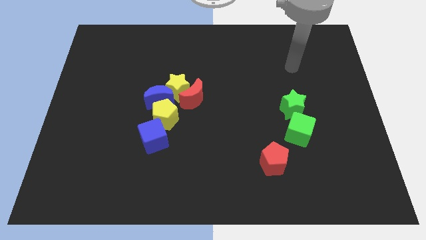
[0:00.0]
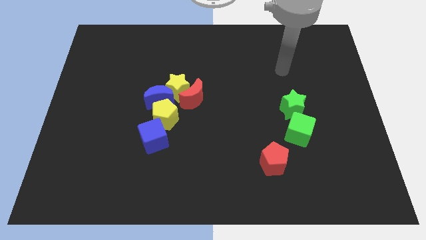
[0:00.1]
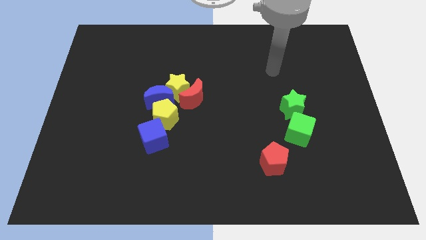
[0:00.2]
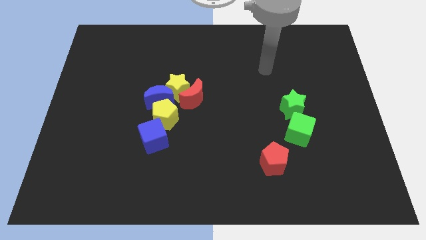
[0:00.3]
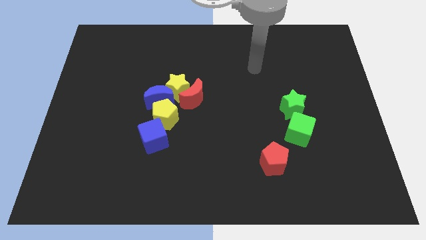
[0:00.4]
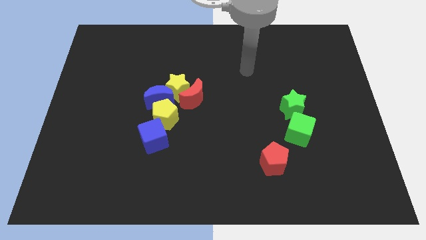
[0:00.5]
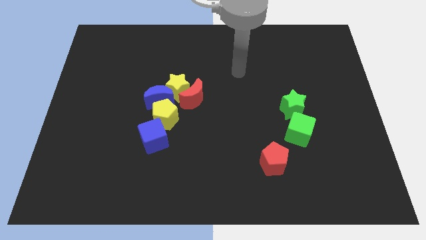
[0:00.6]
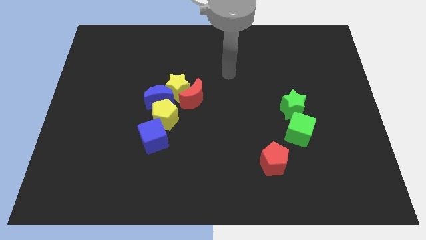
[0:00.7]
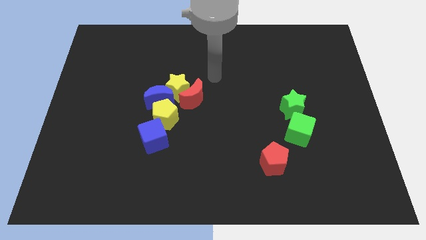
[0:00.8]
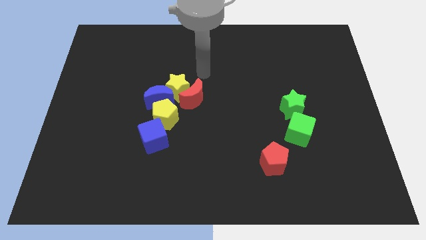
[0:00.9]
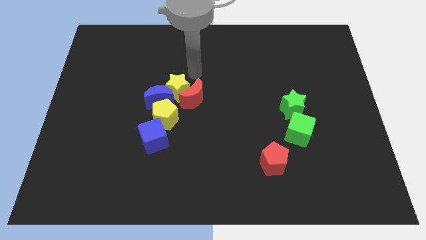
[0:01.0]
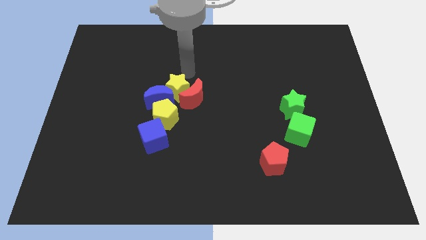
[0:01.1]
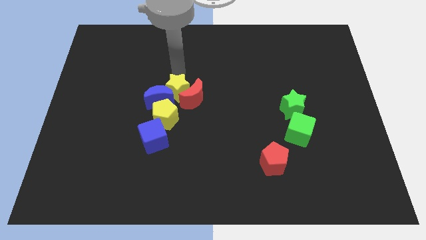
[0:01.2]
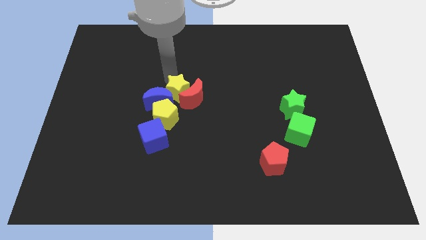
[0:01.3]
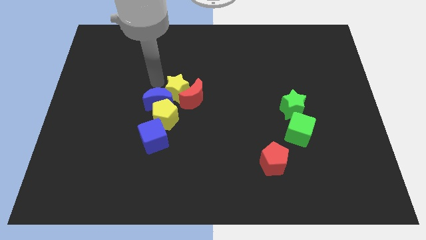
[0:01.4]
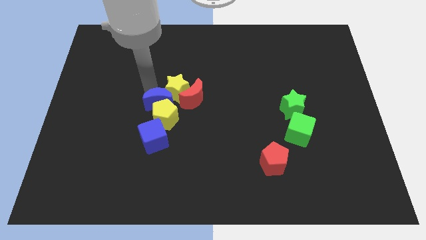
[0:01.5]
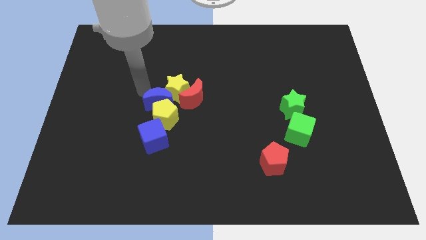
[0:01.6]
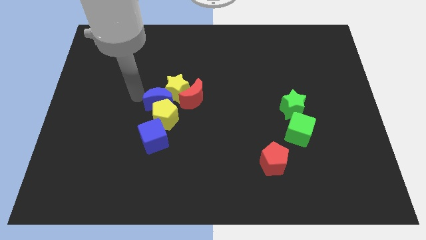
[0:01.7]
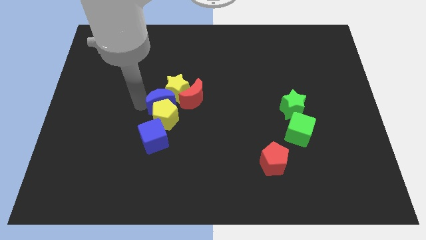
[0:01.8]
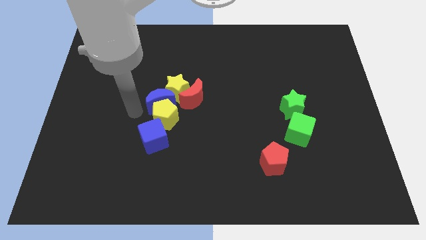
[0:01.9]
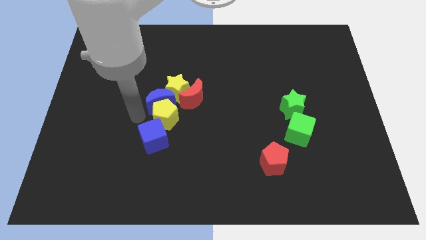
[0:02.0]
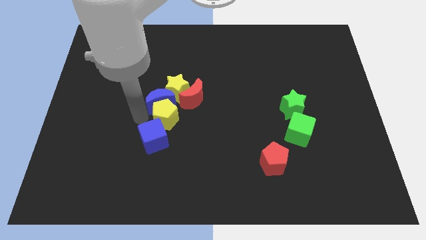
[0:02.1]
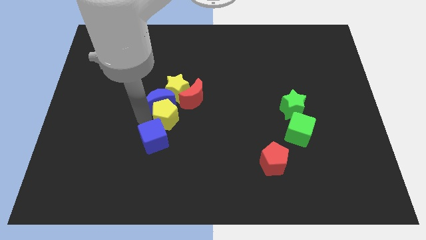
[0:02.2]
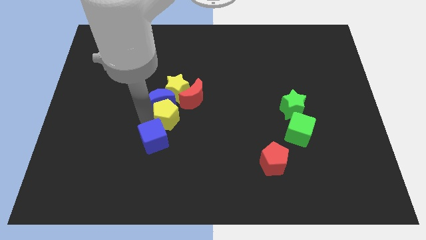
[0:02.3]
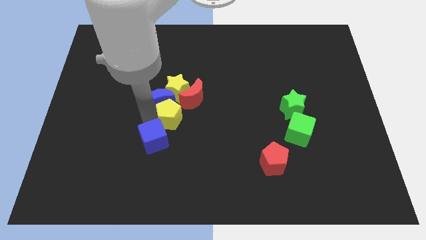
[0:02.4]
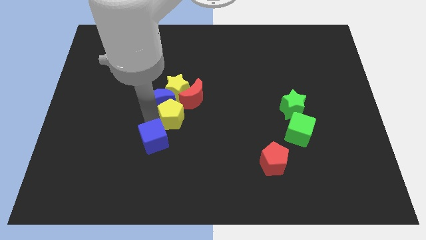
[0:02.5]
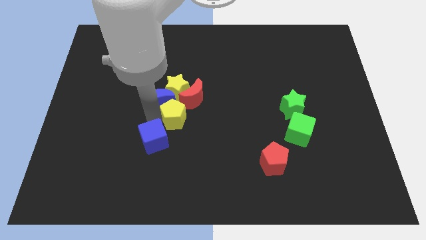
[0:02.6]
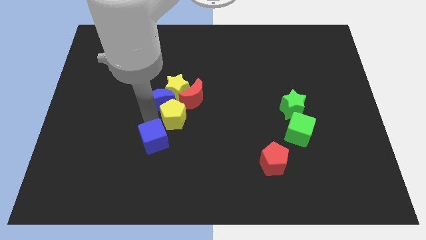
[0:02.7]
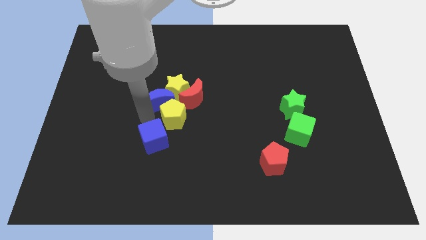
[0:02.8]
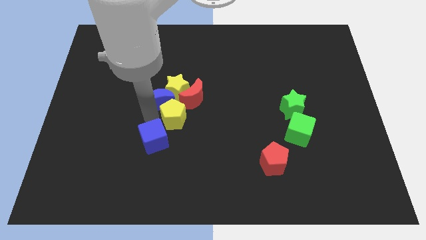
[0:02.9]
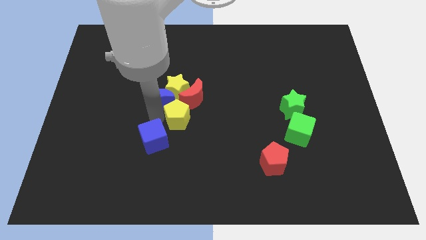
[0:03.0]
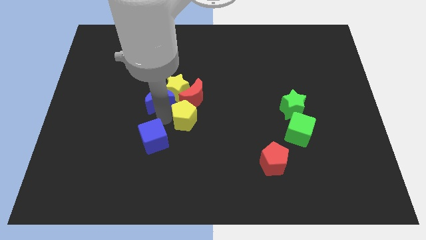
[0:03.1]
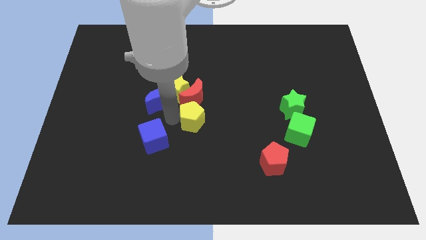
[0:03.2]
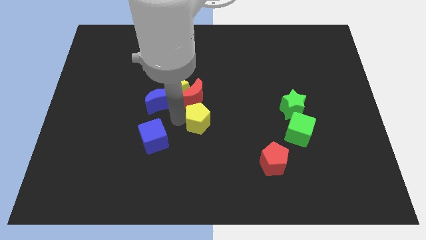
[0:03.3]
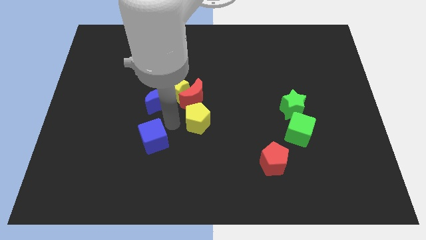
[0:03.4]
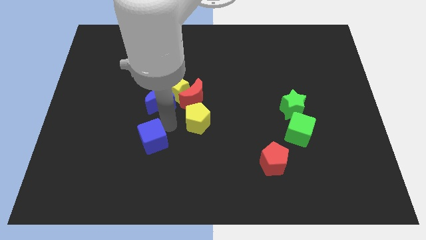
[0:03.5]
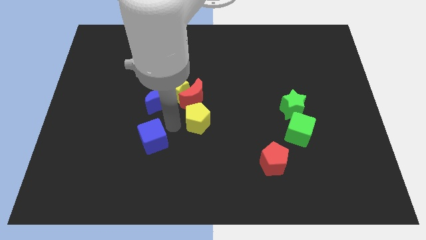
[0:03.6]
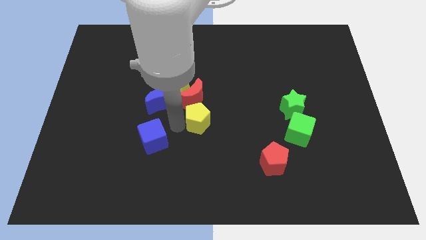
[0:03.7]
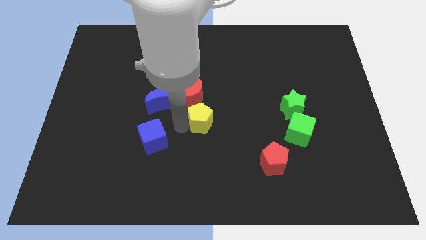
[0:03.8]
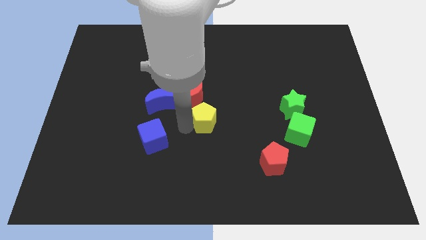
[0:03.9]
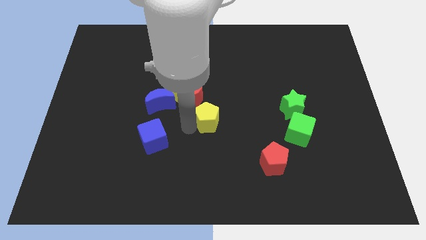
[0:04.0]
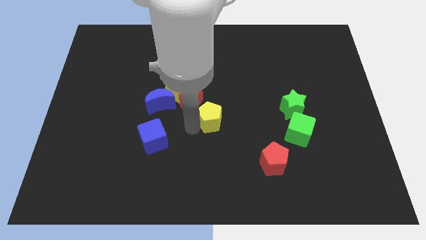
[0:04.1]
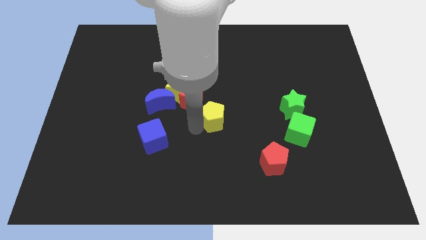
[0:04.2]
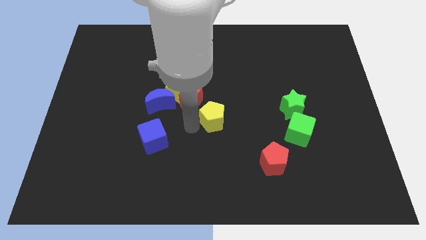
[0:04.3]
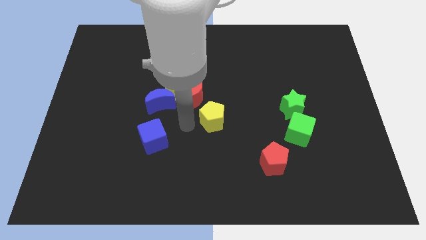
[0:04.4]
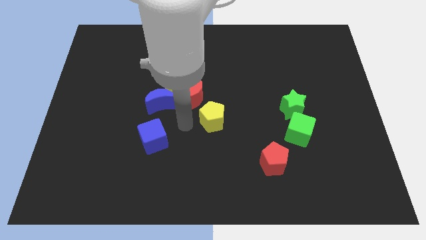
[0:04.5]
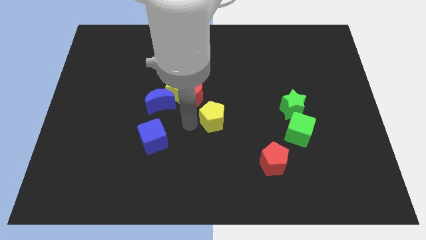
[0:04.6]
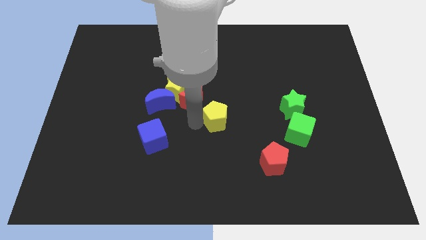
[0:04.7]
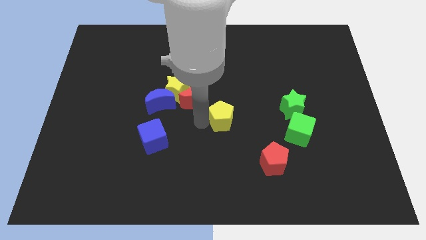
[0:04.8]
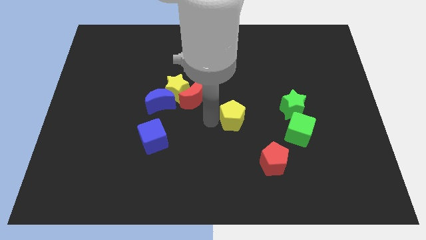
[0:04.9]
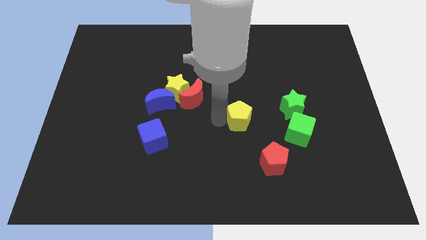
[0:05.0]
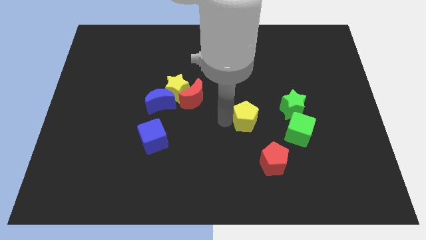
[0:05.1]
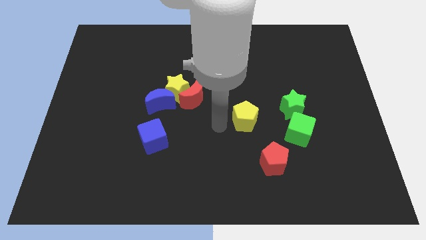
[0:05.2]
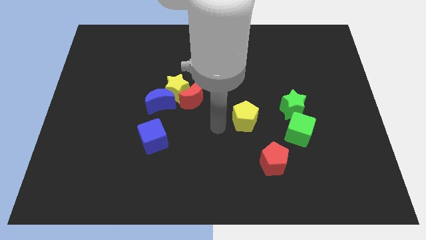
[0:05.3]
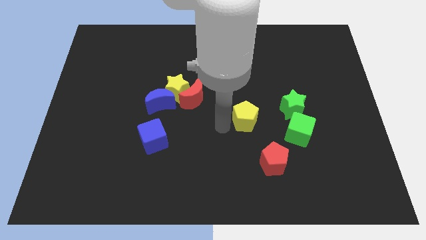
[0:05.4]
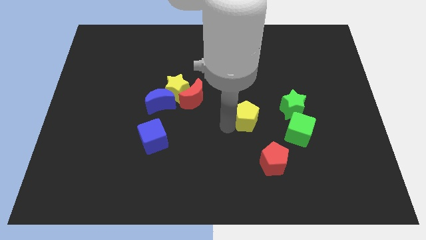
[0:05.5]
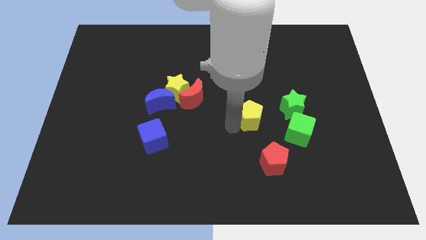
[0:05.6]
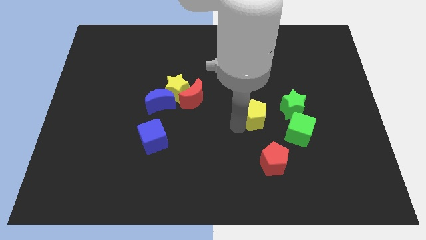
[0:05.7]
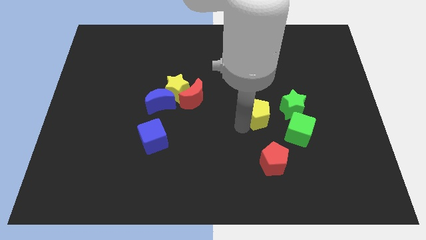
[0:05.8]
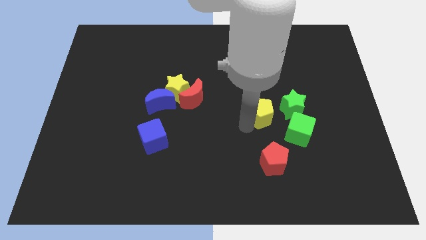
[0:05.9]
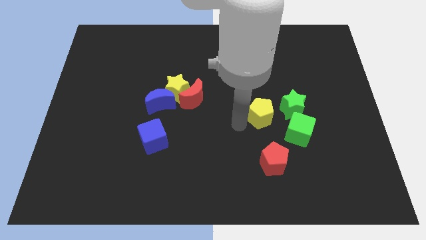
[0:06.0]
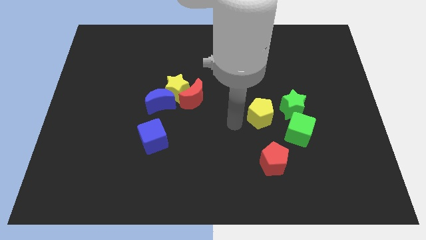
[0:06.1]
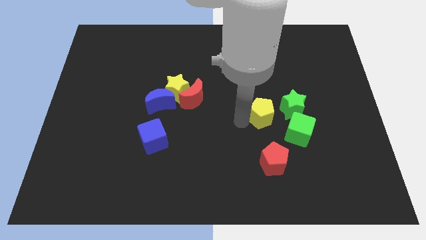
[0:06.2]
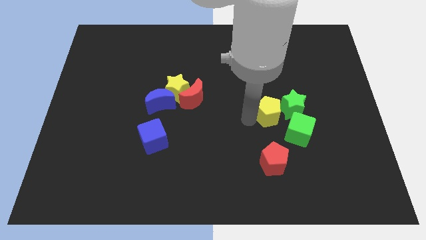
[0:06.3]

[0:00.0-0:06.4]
slide the yellow pentagon next to the green star

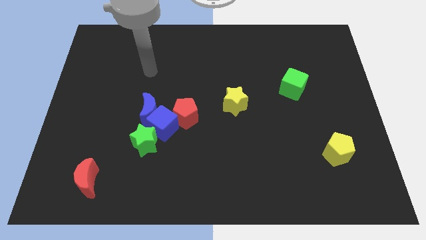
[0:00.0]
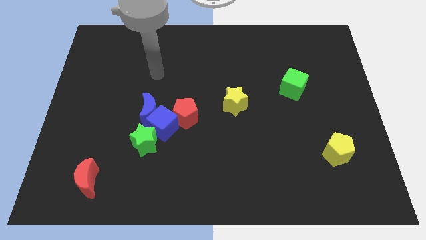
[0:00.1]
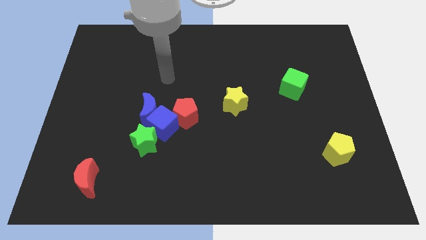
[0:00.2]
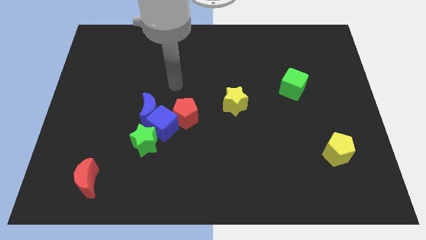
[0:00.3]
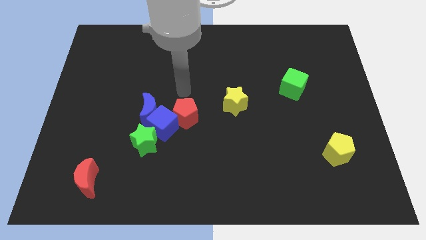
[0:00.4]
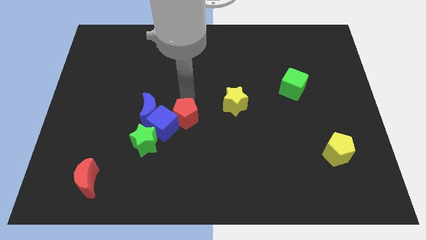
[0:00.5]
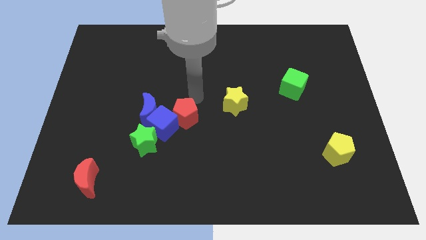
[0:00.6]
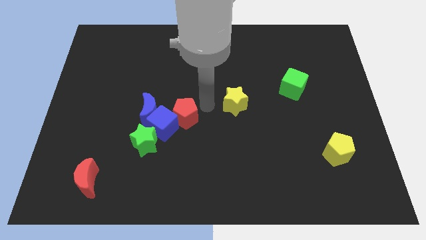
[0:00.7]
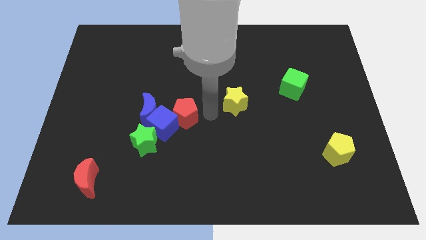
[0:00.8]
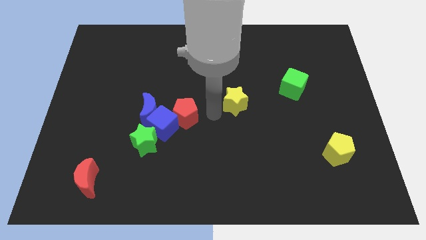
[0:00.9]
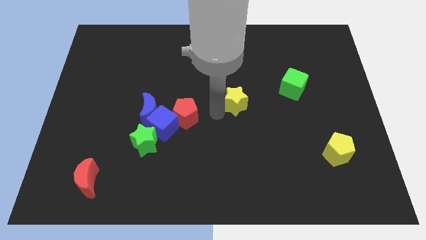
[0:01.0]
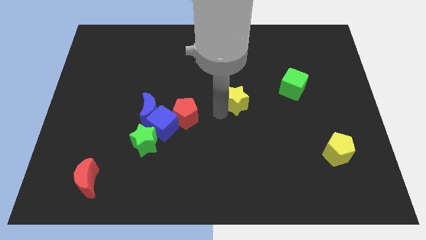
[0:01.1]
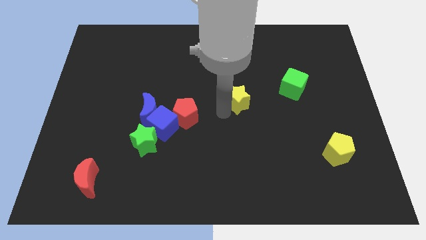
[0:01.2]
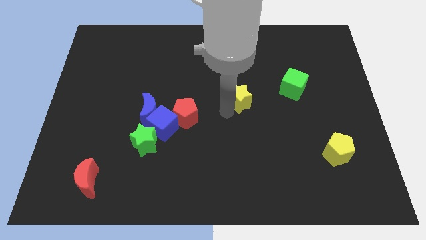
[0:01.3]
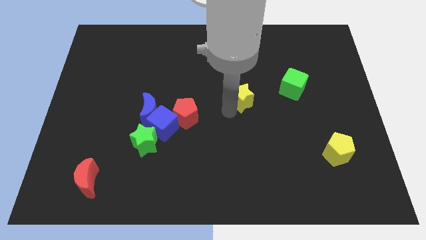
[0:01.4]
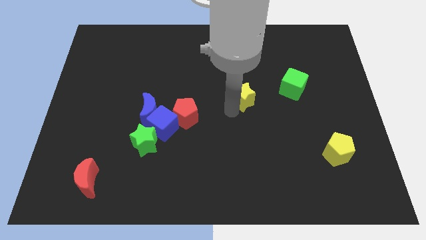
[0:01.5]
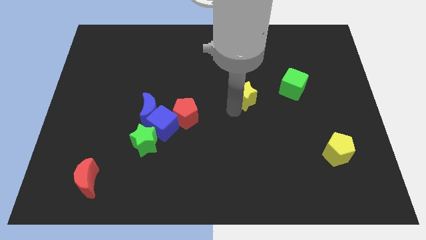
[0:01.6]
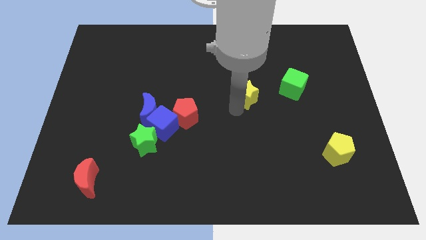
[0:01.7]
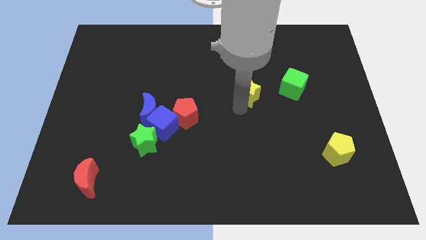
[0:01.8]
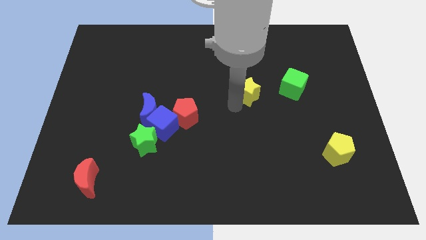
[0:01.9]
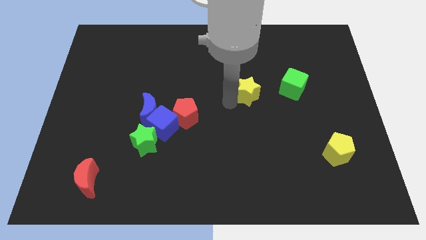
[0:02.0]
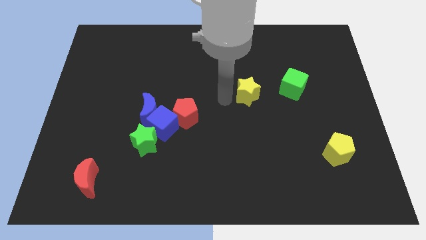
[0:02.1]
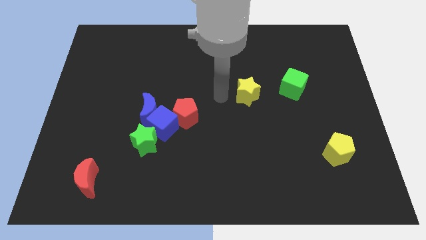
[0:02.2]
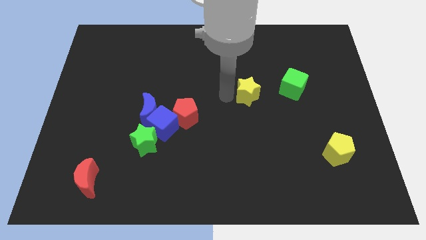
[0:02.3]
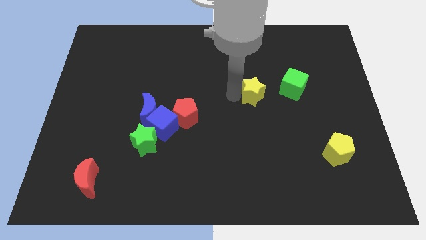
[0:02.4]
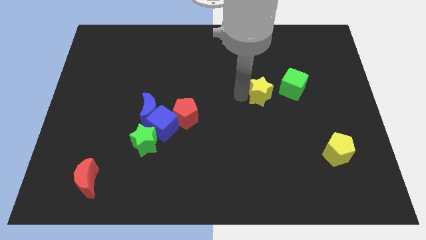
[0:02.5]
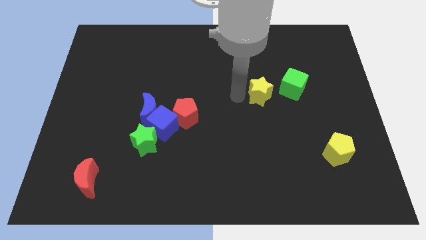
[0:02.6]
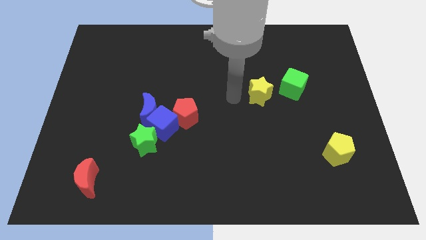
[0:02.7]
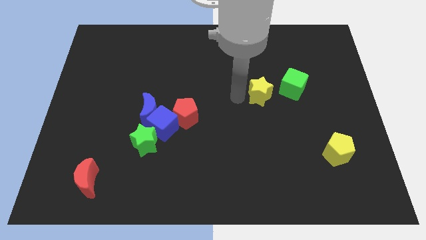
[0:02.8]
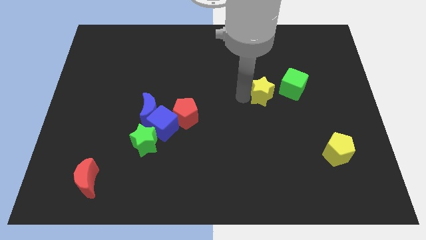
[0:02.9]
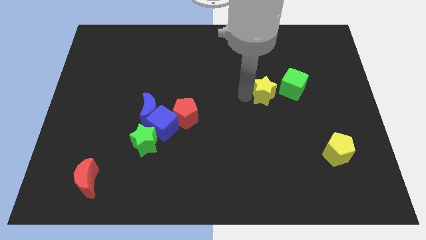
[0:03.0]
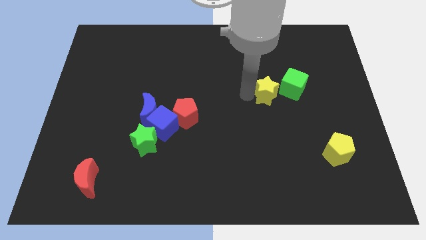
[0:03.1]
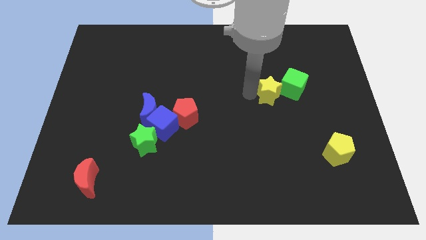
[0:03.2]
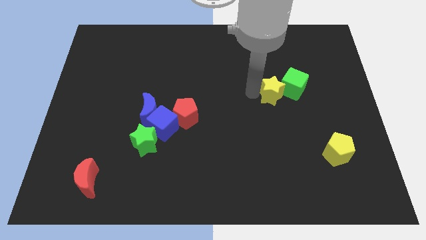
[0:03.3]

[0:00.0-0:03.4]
slide the yellow star to the green cube
